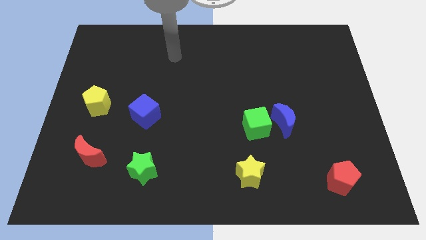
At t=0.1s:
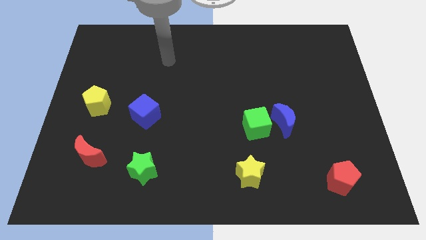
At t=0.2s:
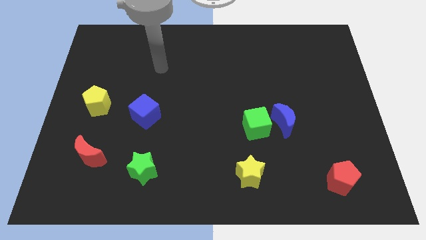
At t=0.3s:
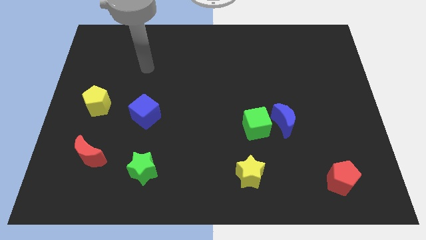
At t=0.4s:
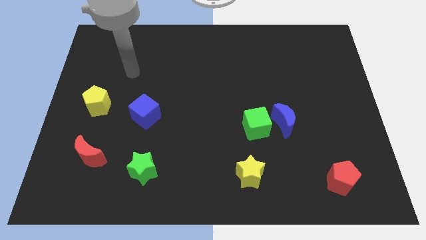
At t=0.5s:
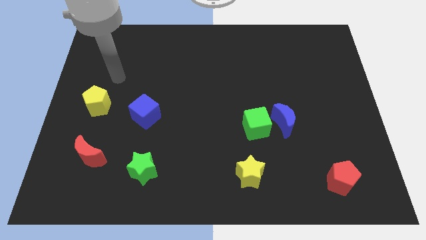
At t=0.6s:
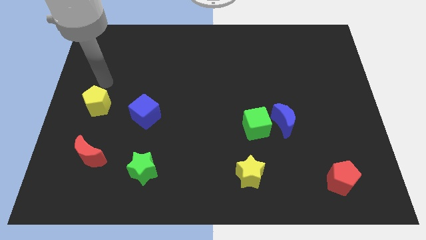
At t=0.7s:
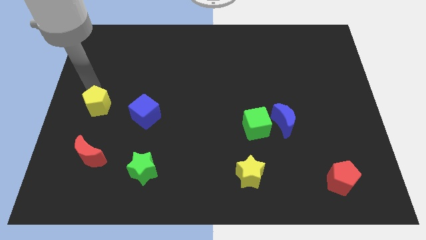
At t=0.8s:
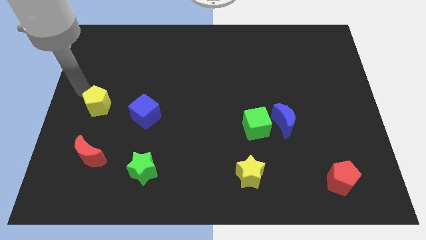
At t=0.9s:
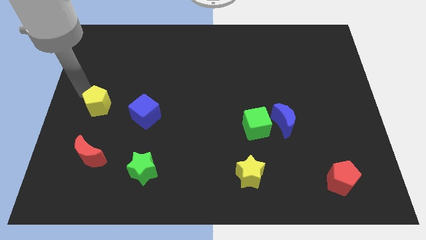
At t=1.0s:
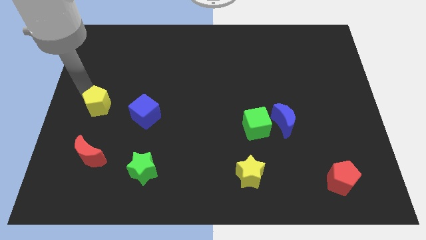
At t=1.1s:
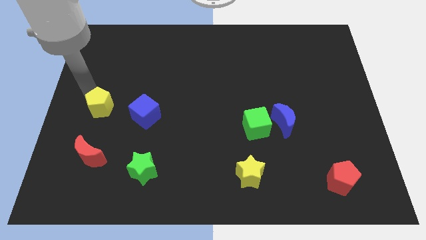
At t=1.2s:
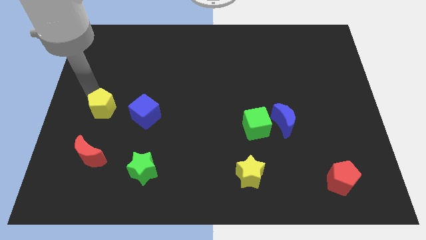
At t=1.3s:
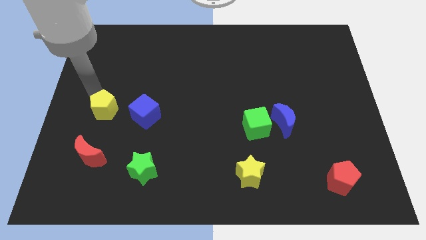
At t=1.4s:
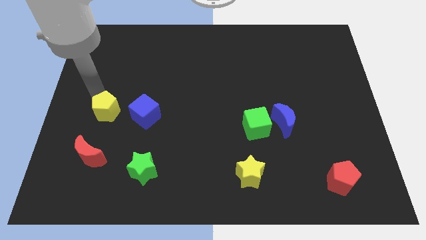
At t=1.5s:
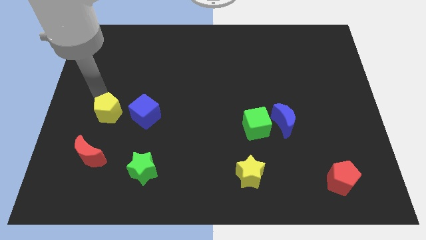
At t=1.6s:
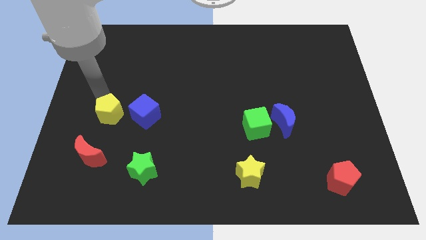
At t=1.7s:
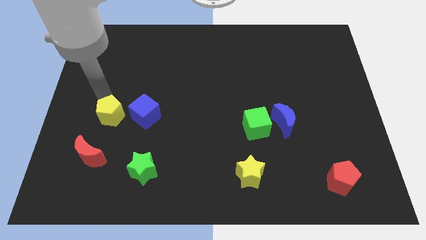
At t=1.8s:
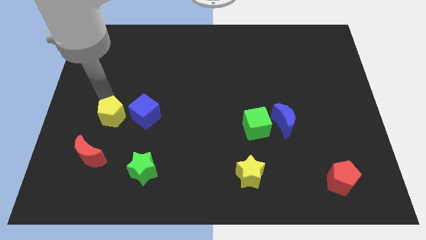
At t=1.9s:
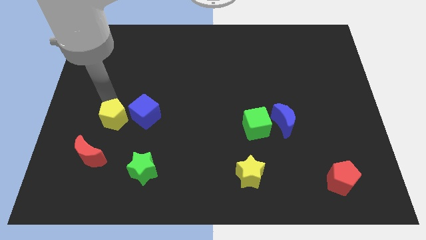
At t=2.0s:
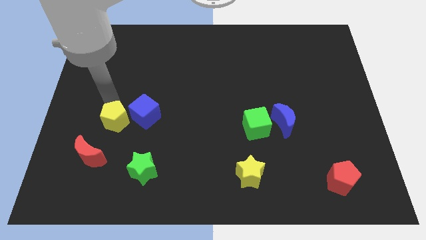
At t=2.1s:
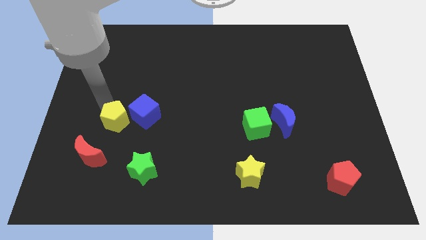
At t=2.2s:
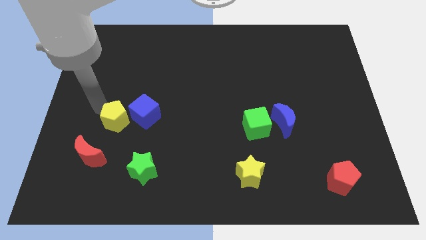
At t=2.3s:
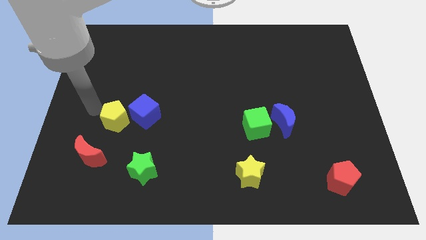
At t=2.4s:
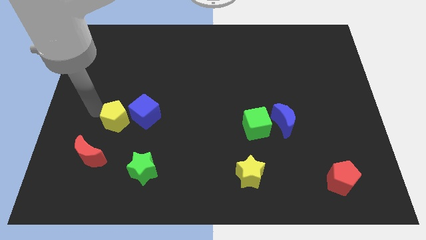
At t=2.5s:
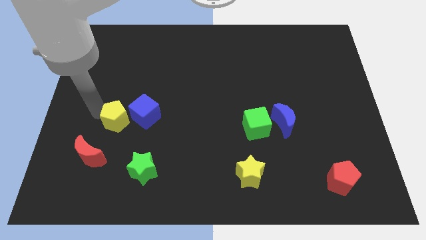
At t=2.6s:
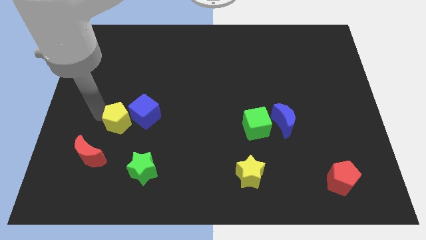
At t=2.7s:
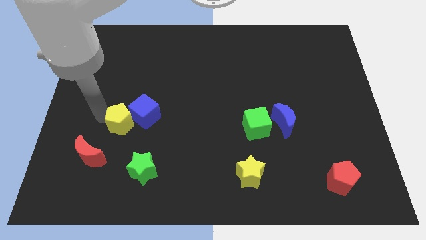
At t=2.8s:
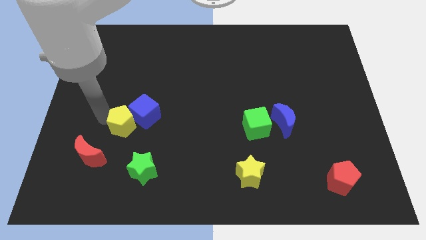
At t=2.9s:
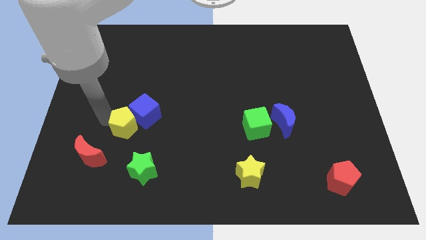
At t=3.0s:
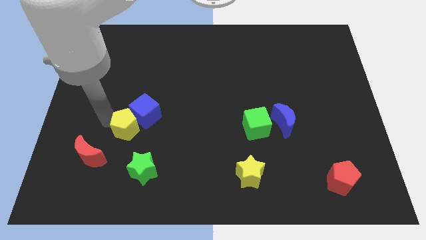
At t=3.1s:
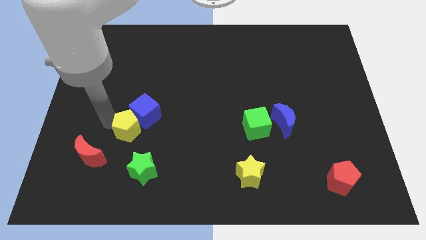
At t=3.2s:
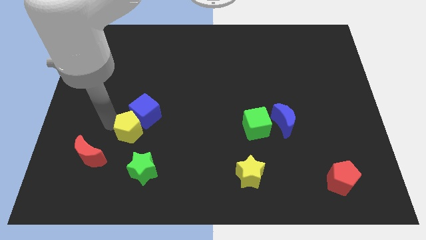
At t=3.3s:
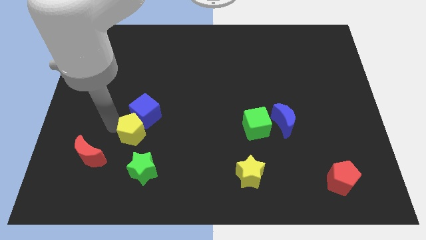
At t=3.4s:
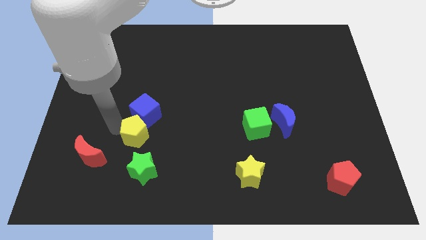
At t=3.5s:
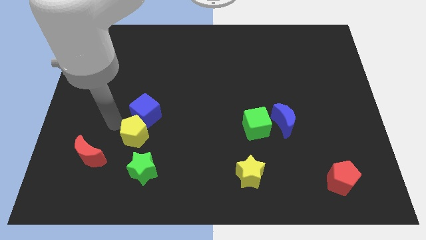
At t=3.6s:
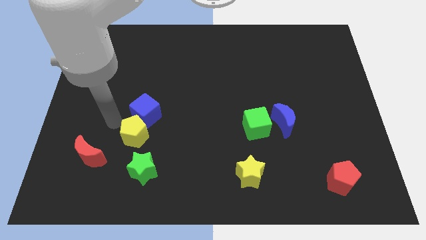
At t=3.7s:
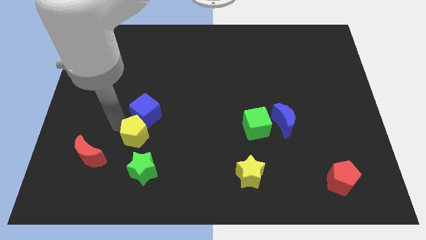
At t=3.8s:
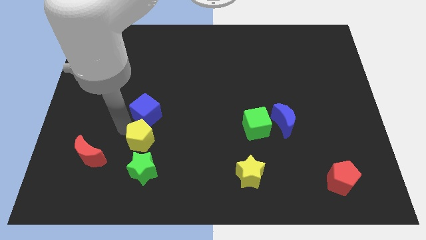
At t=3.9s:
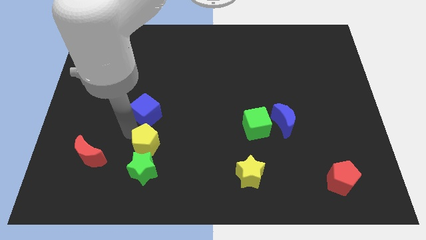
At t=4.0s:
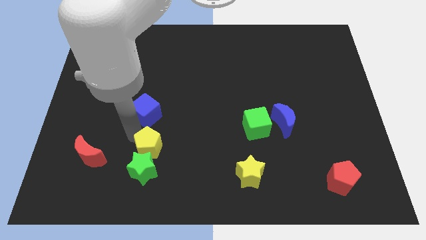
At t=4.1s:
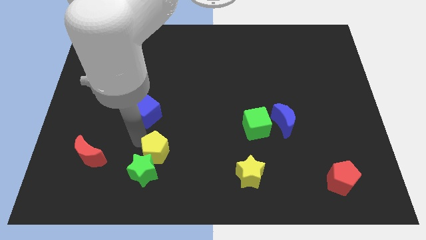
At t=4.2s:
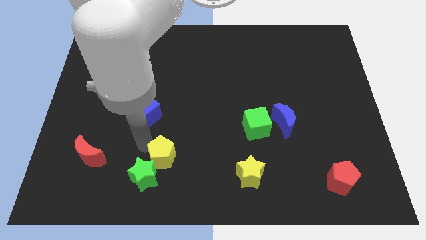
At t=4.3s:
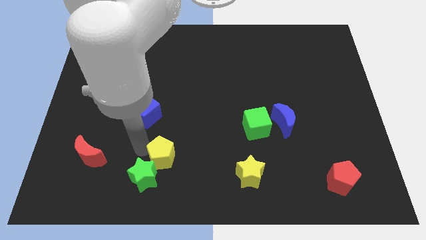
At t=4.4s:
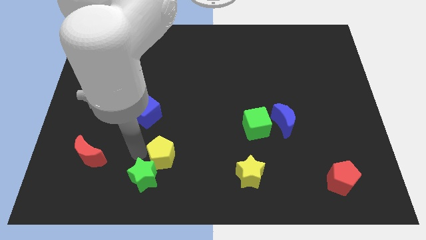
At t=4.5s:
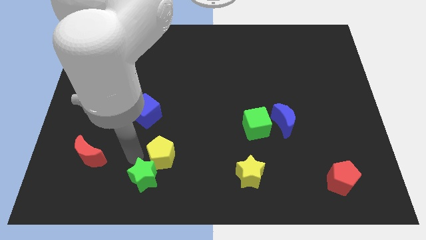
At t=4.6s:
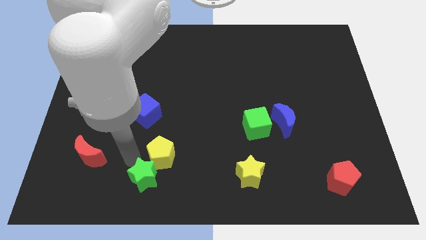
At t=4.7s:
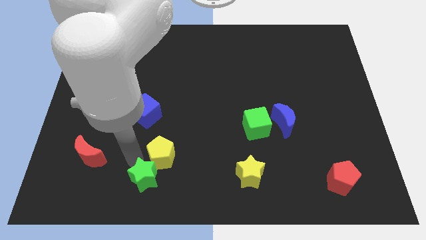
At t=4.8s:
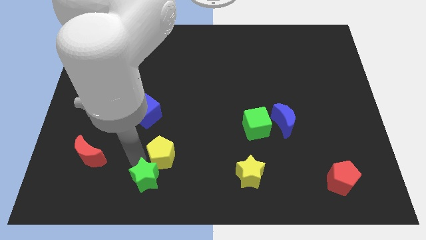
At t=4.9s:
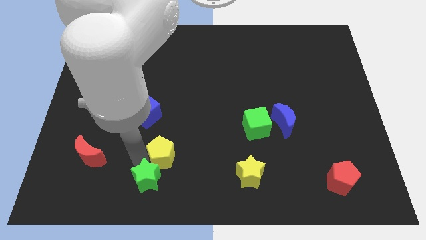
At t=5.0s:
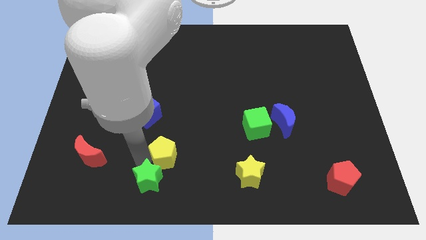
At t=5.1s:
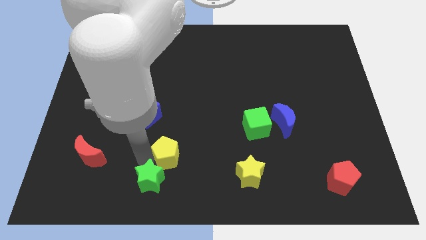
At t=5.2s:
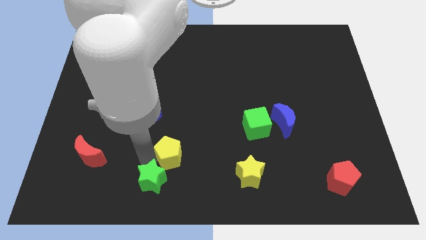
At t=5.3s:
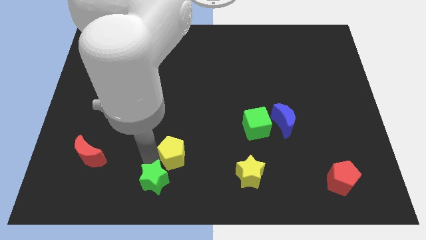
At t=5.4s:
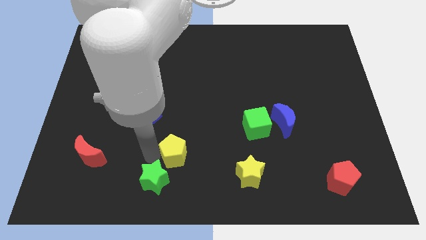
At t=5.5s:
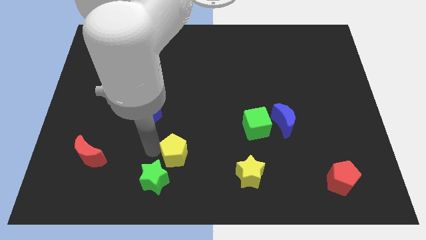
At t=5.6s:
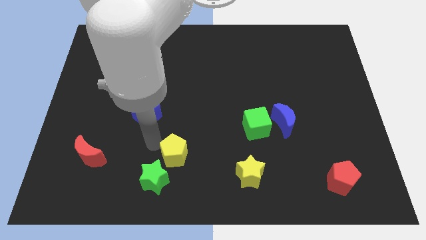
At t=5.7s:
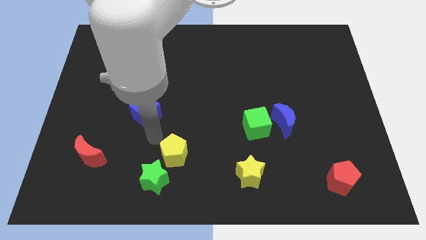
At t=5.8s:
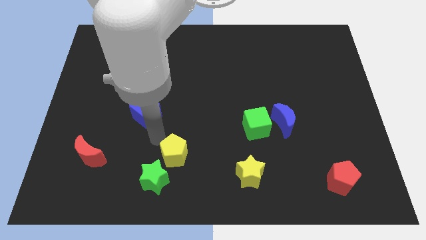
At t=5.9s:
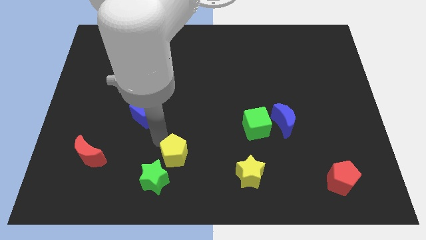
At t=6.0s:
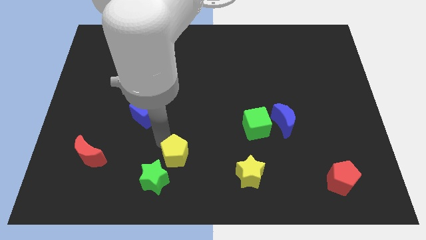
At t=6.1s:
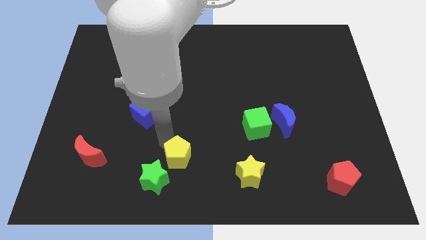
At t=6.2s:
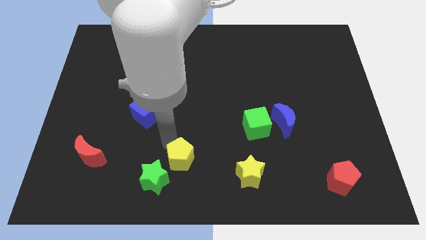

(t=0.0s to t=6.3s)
slide the yellow pentagon to the left of the yellow star

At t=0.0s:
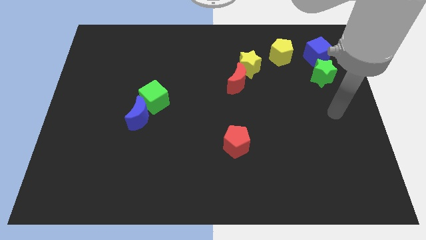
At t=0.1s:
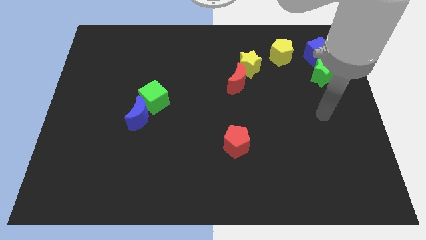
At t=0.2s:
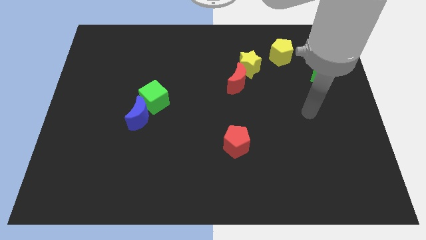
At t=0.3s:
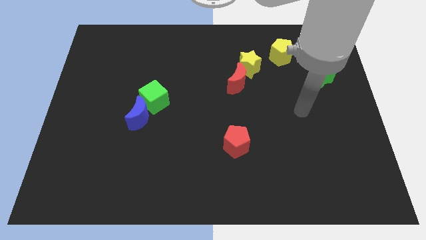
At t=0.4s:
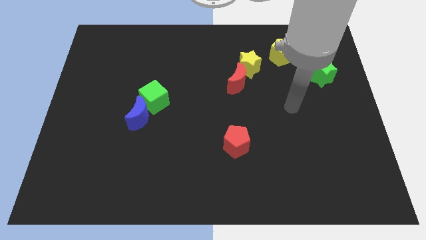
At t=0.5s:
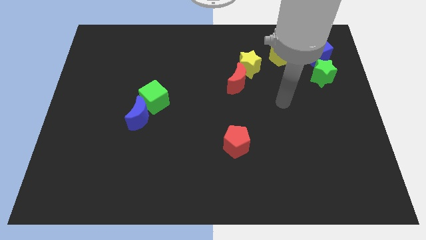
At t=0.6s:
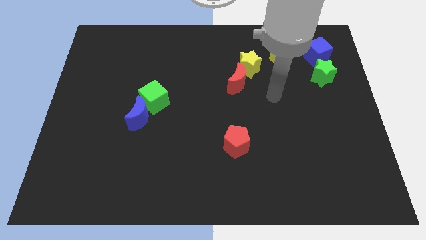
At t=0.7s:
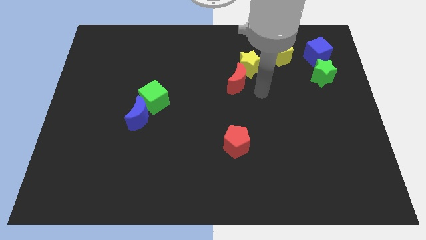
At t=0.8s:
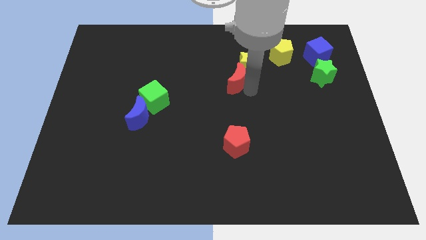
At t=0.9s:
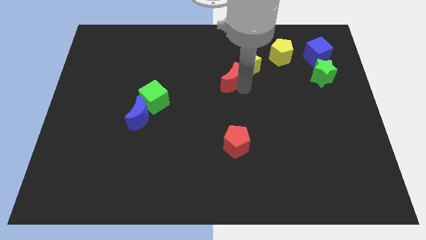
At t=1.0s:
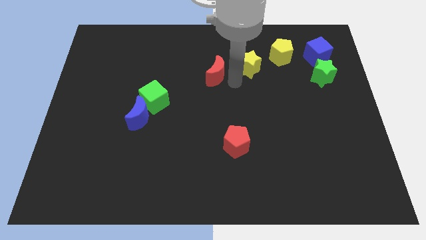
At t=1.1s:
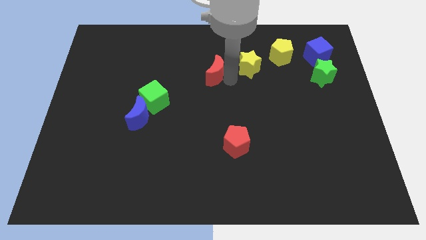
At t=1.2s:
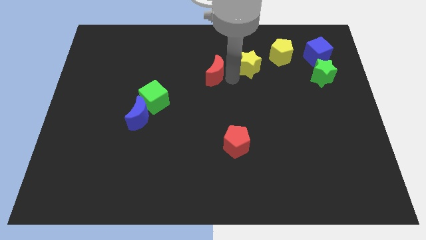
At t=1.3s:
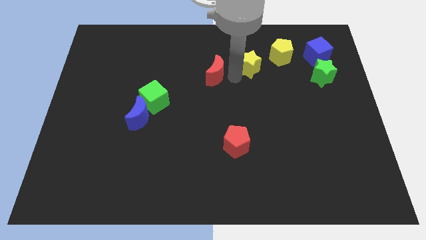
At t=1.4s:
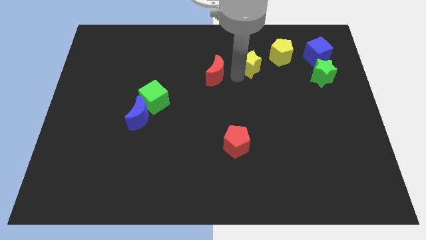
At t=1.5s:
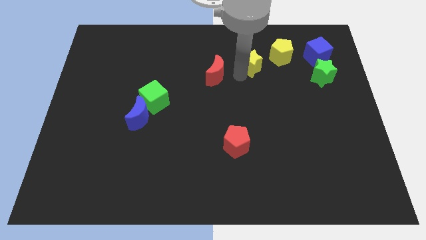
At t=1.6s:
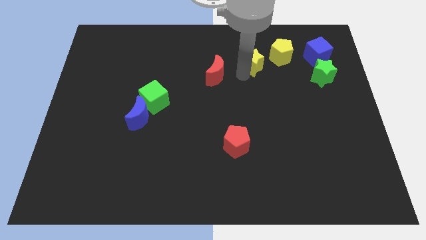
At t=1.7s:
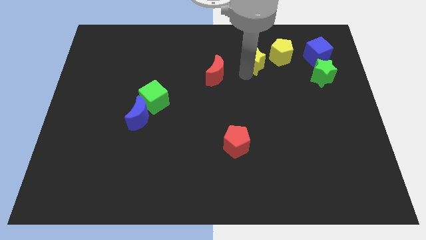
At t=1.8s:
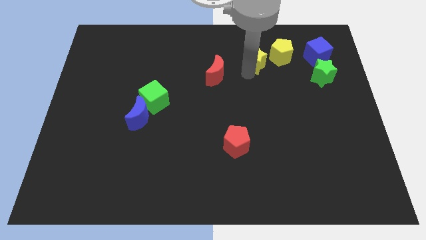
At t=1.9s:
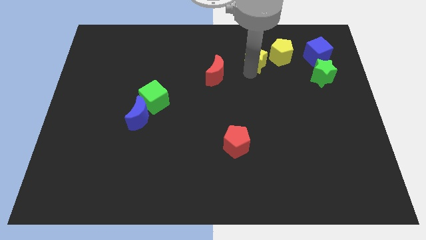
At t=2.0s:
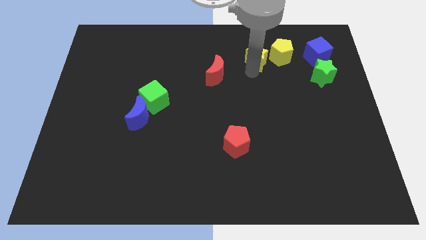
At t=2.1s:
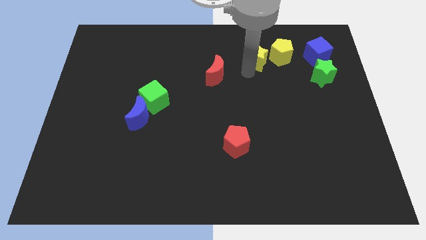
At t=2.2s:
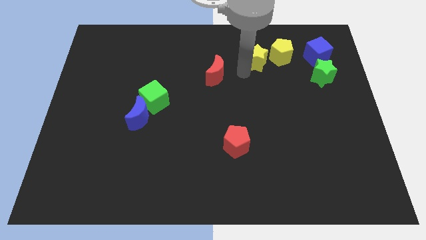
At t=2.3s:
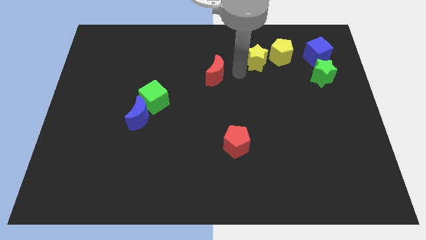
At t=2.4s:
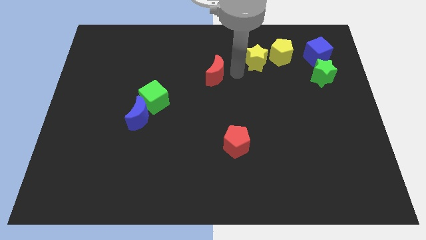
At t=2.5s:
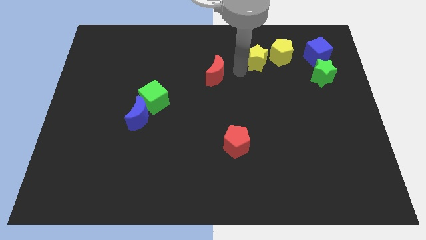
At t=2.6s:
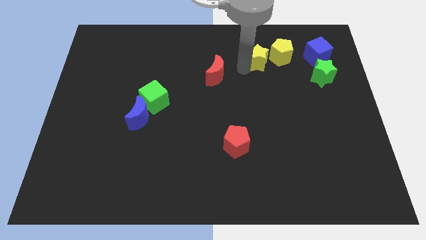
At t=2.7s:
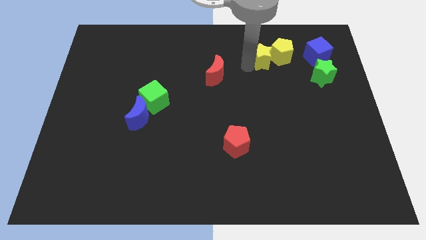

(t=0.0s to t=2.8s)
slide the yellow star to the left of the blue cube
